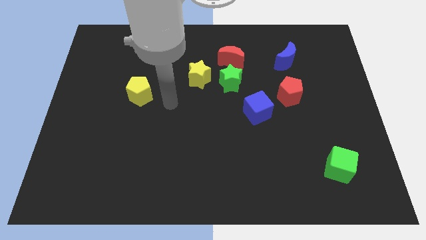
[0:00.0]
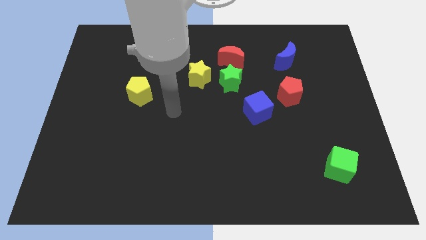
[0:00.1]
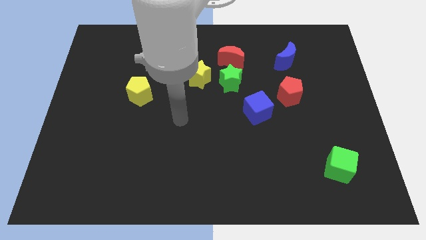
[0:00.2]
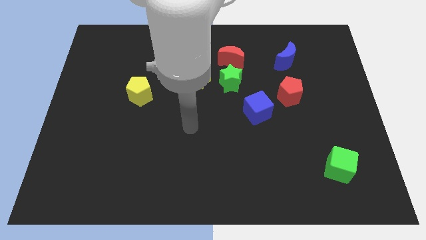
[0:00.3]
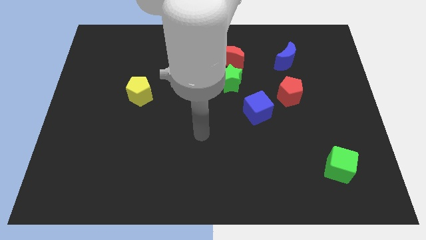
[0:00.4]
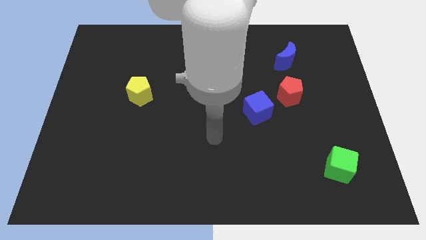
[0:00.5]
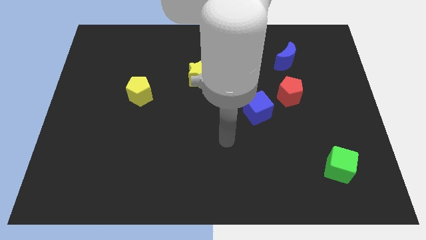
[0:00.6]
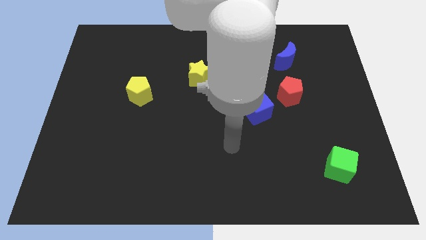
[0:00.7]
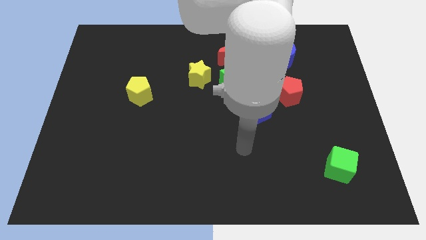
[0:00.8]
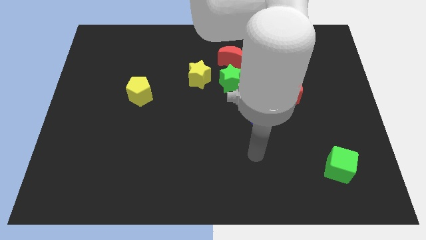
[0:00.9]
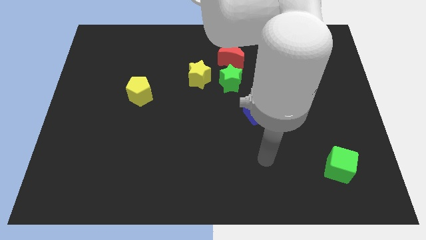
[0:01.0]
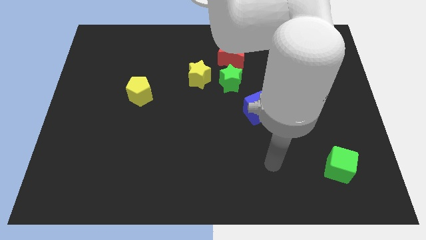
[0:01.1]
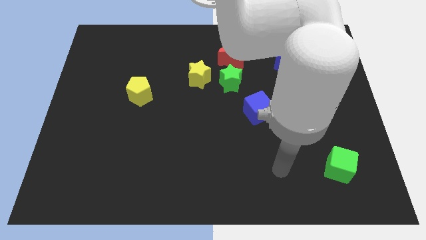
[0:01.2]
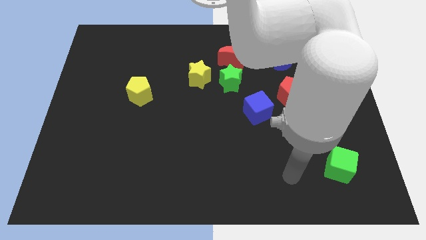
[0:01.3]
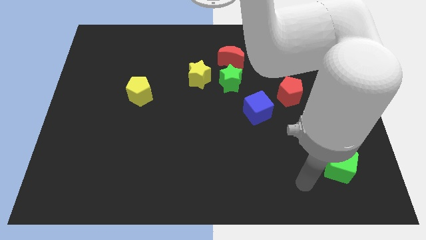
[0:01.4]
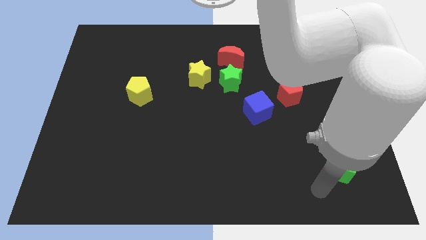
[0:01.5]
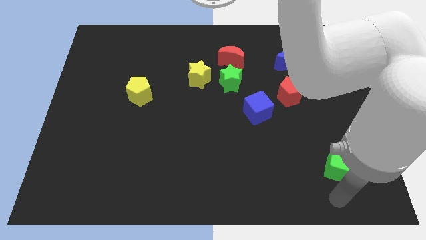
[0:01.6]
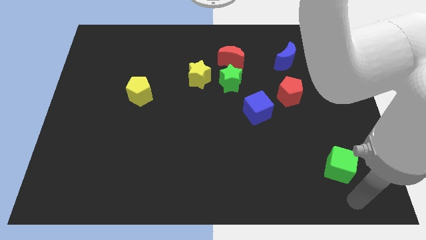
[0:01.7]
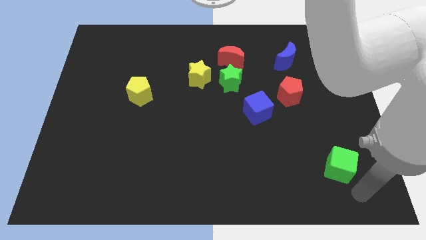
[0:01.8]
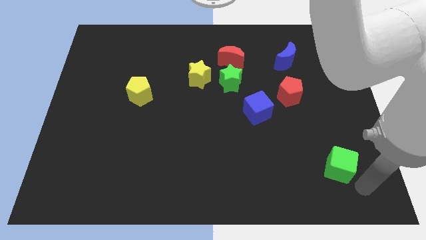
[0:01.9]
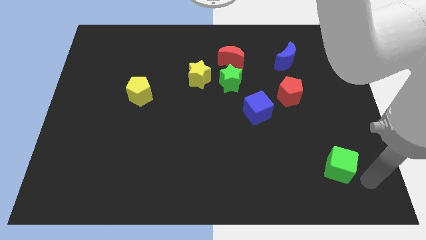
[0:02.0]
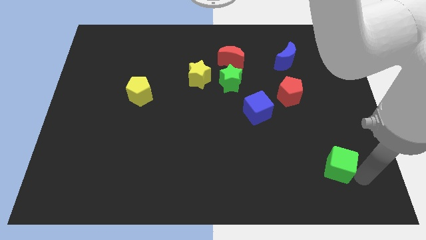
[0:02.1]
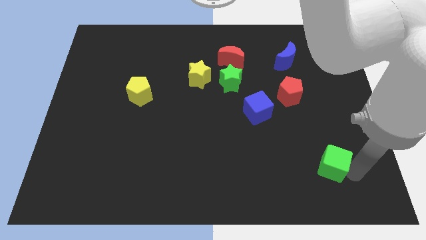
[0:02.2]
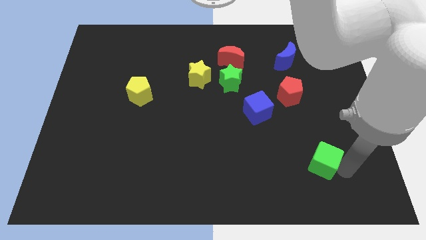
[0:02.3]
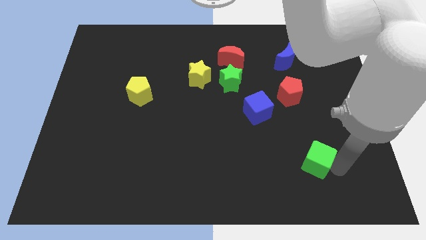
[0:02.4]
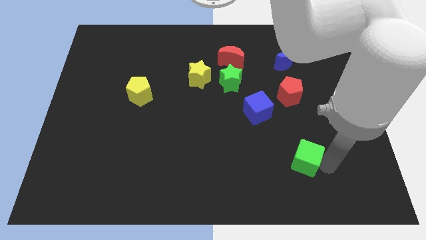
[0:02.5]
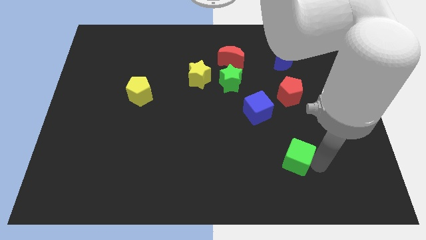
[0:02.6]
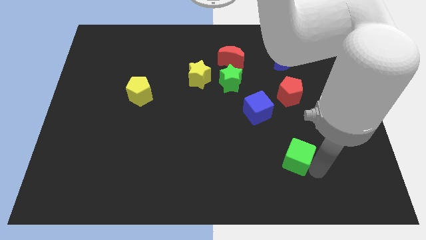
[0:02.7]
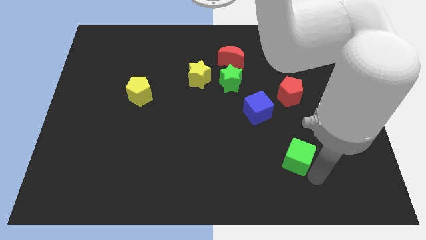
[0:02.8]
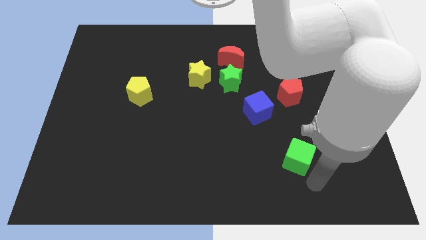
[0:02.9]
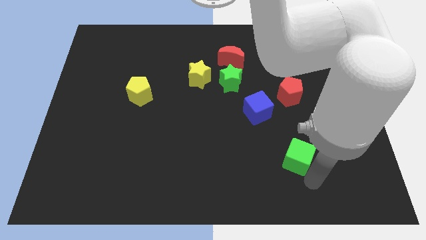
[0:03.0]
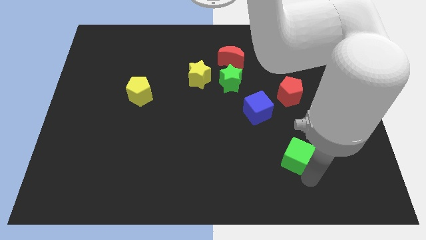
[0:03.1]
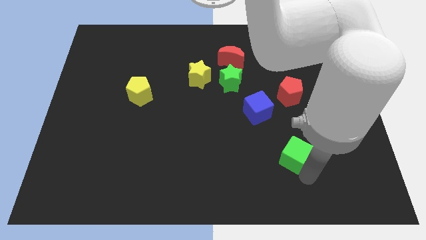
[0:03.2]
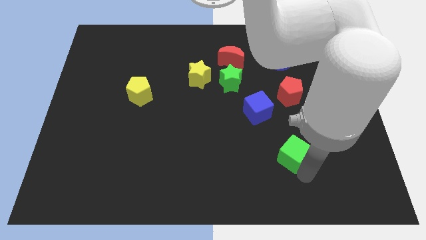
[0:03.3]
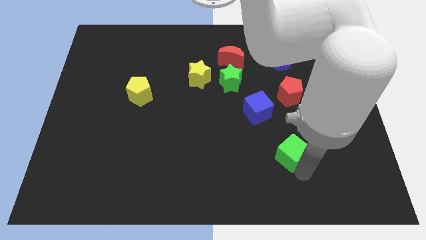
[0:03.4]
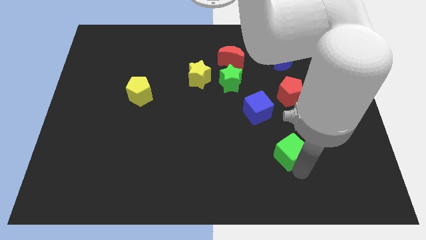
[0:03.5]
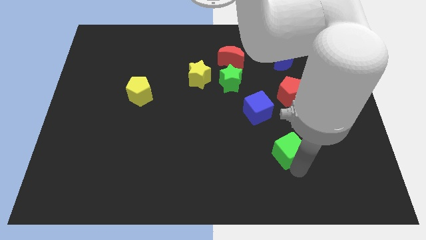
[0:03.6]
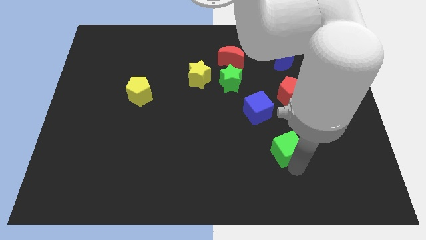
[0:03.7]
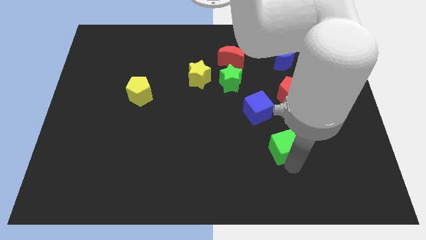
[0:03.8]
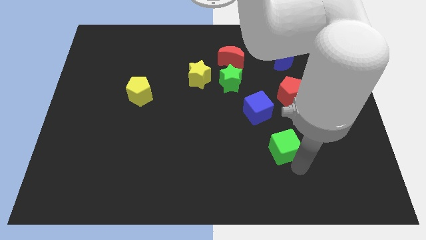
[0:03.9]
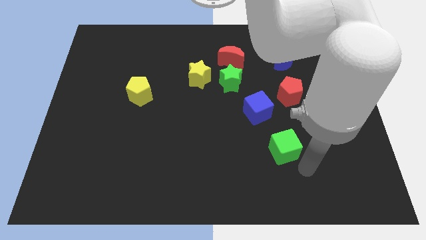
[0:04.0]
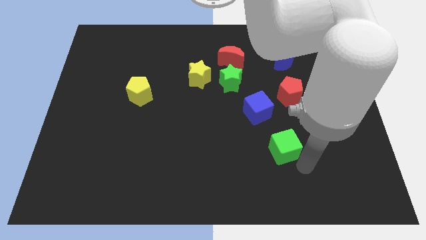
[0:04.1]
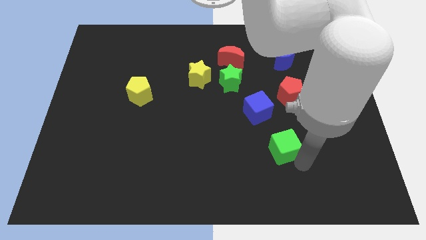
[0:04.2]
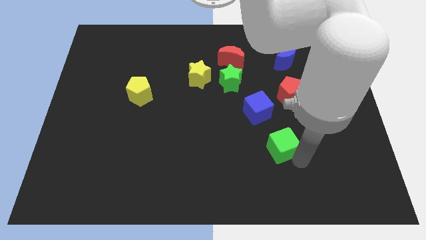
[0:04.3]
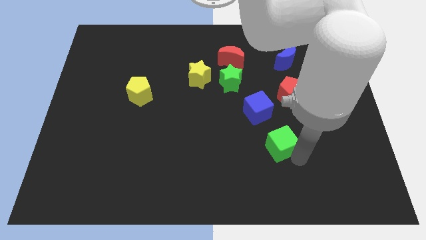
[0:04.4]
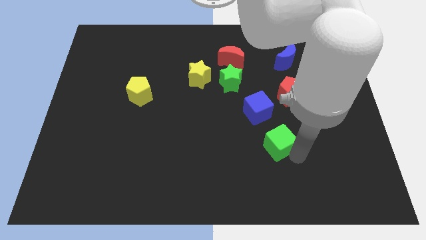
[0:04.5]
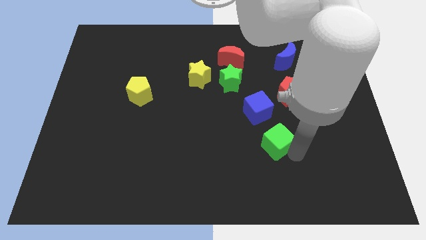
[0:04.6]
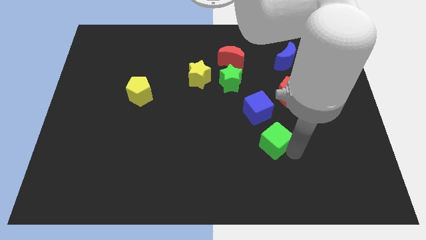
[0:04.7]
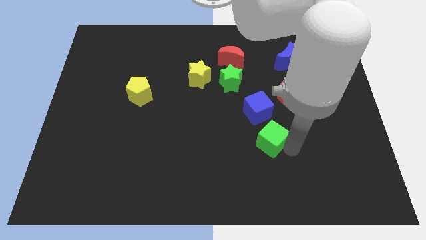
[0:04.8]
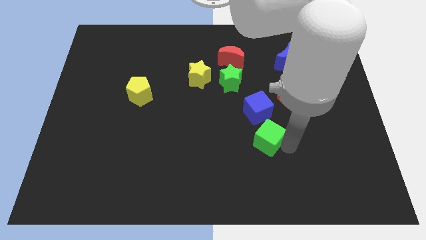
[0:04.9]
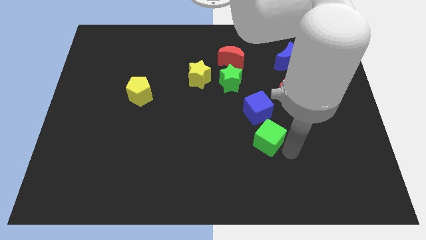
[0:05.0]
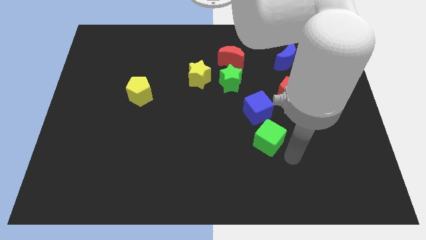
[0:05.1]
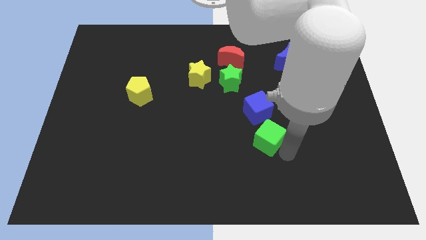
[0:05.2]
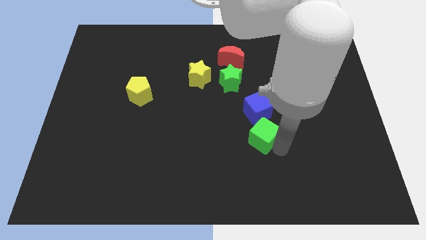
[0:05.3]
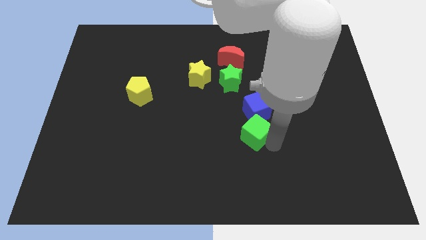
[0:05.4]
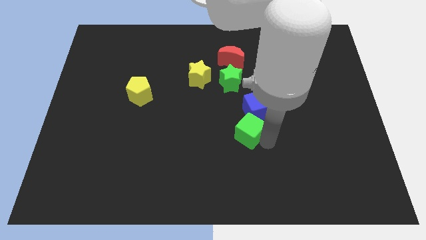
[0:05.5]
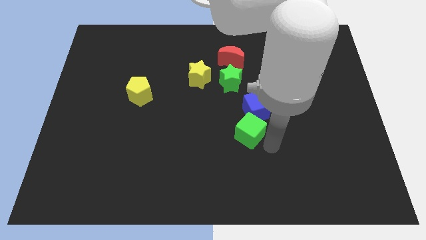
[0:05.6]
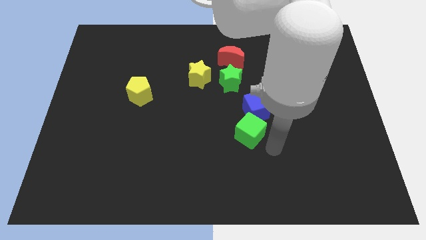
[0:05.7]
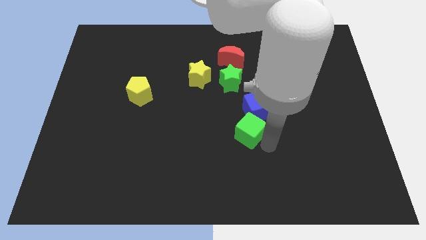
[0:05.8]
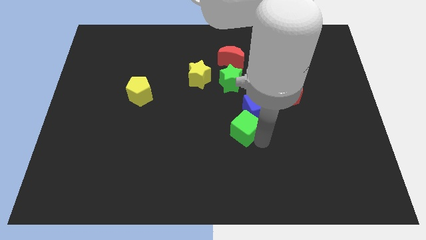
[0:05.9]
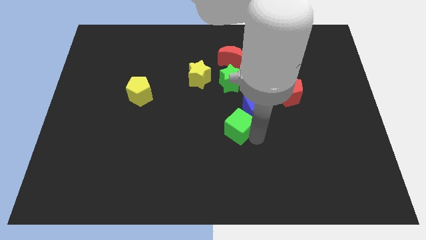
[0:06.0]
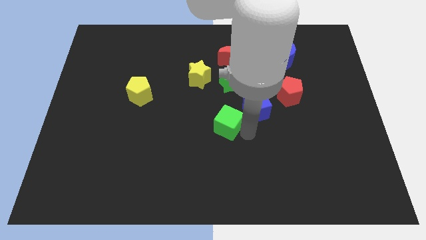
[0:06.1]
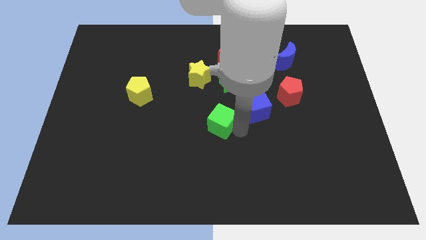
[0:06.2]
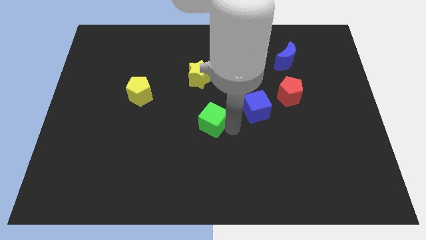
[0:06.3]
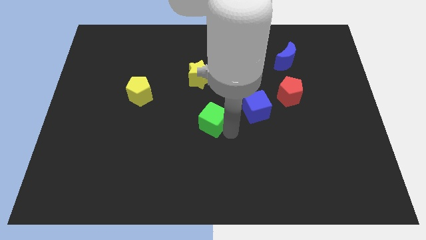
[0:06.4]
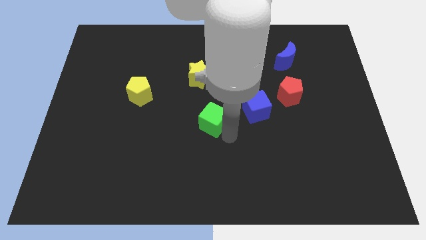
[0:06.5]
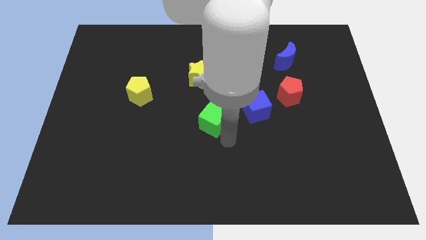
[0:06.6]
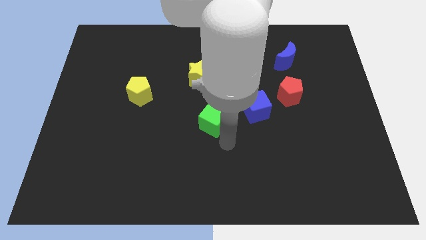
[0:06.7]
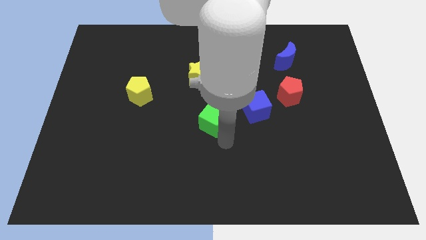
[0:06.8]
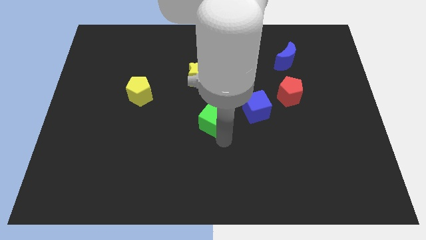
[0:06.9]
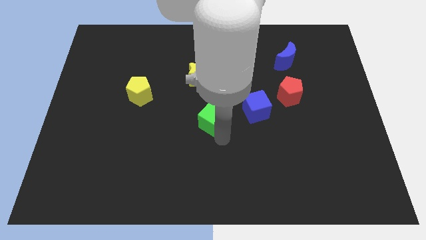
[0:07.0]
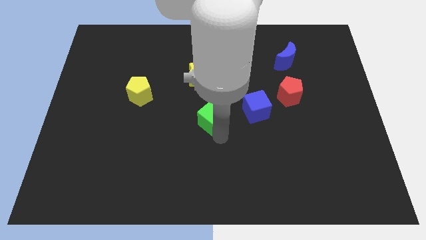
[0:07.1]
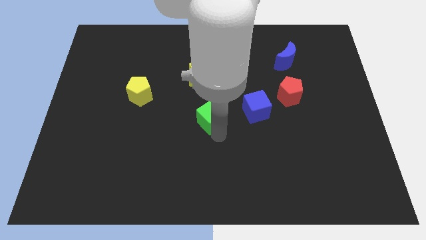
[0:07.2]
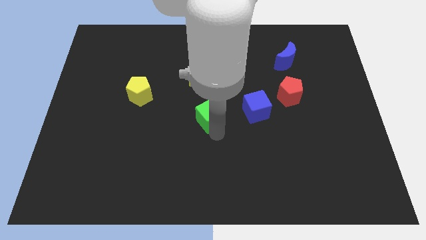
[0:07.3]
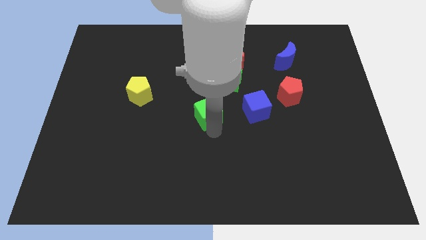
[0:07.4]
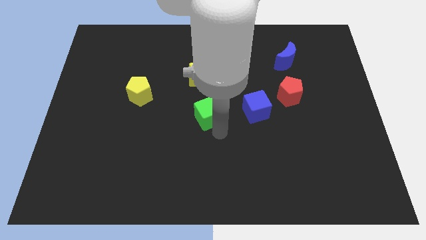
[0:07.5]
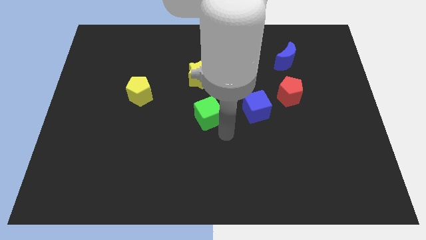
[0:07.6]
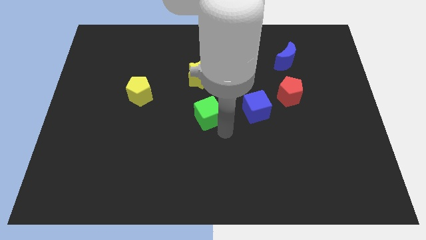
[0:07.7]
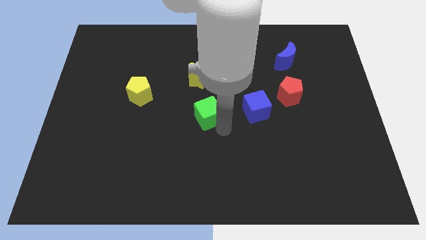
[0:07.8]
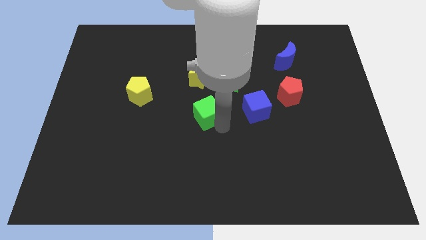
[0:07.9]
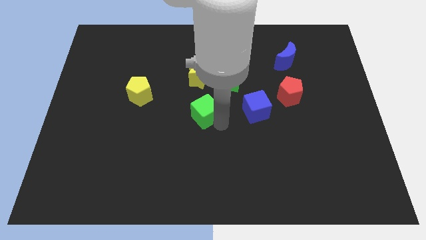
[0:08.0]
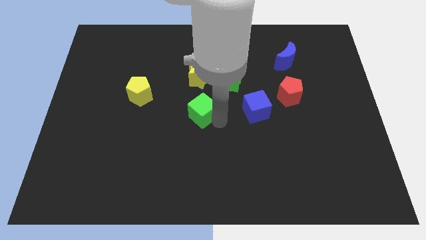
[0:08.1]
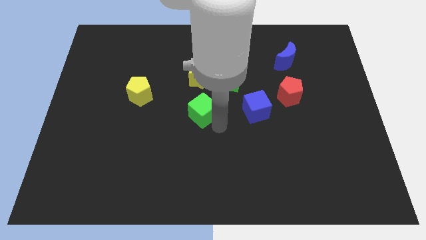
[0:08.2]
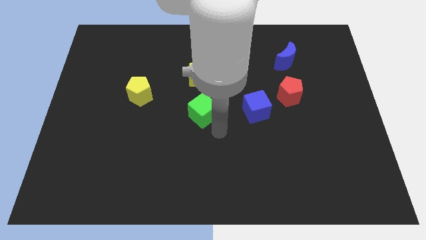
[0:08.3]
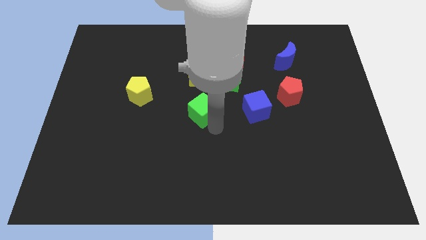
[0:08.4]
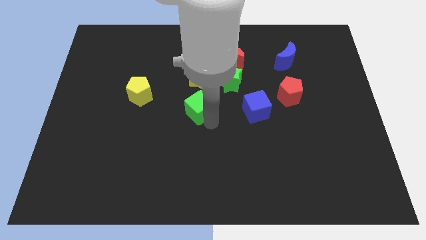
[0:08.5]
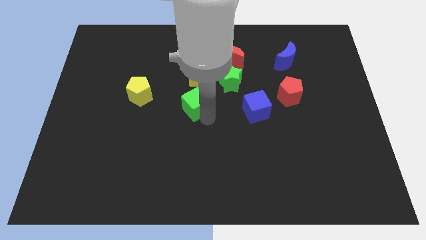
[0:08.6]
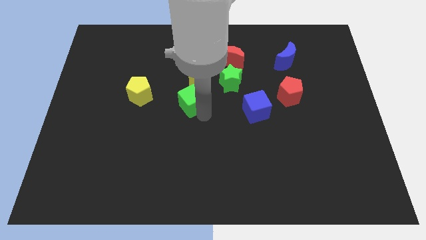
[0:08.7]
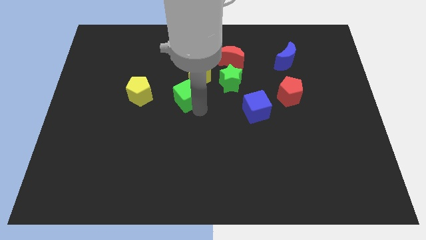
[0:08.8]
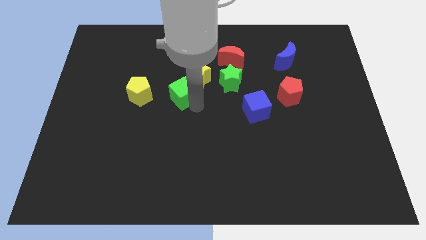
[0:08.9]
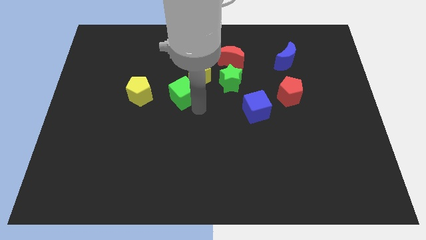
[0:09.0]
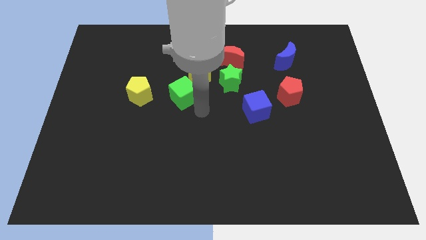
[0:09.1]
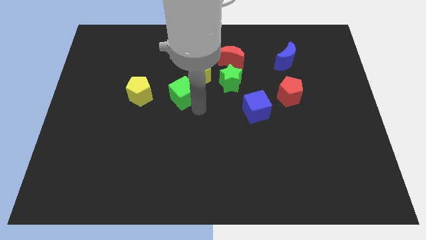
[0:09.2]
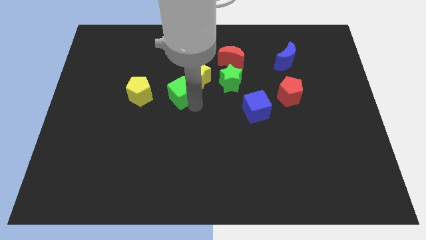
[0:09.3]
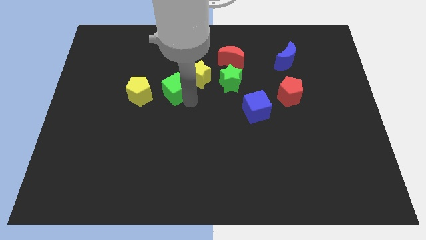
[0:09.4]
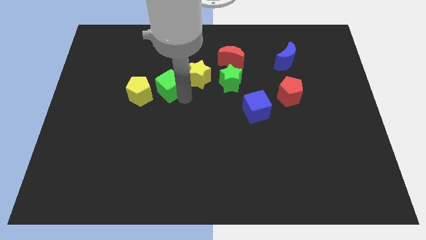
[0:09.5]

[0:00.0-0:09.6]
slide the green cube to the top right side of the yellow pentagon
